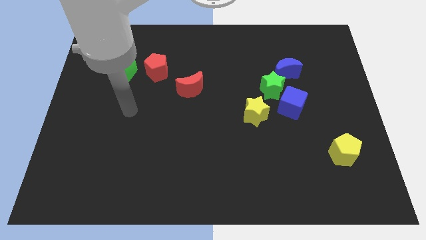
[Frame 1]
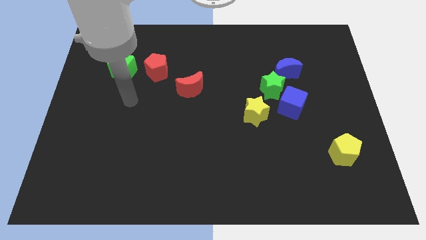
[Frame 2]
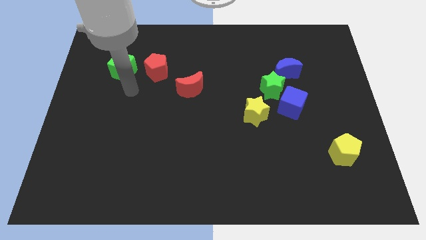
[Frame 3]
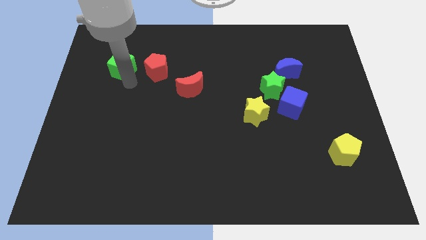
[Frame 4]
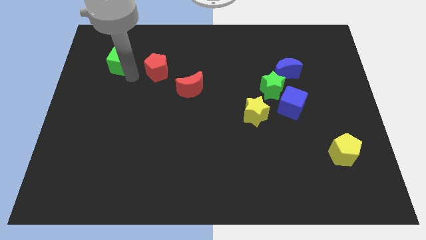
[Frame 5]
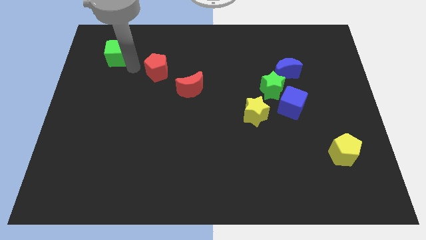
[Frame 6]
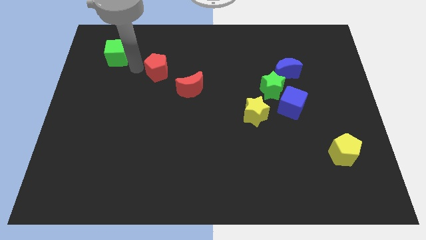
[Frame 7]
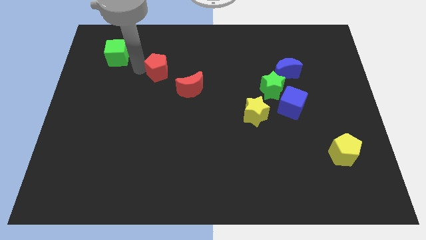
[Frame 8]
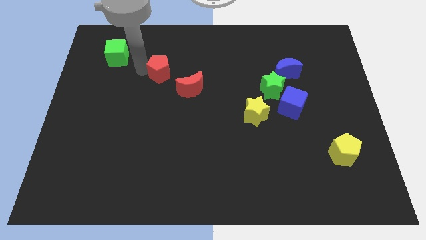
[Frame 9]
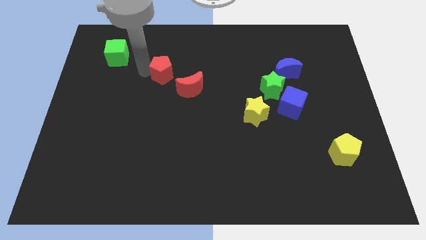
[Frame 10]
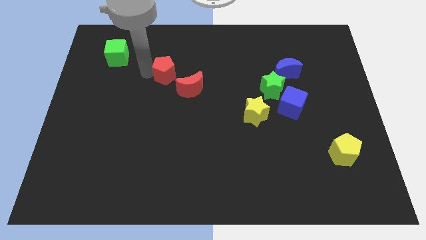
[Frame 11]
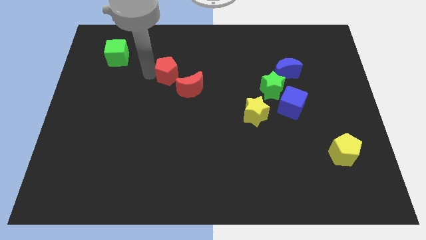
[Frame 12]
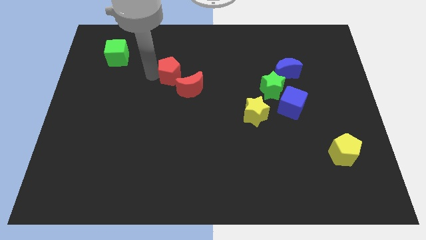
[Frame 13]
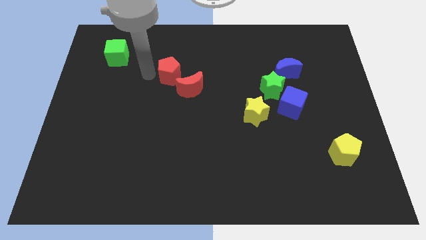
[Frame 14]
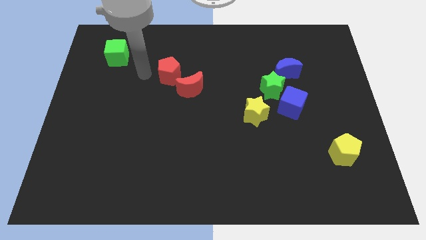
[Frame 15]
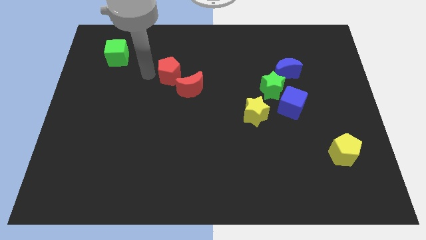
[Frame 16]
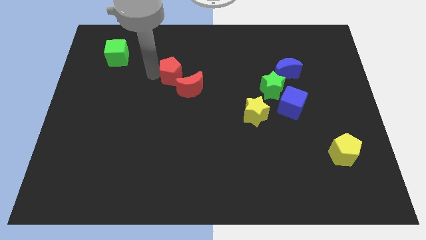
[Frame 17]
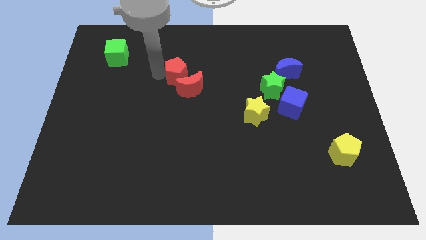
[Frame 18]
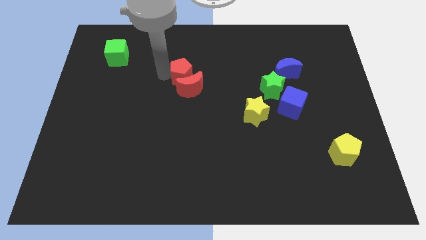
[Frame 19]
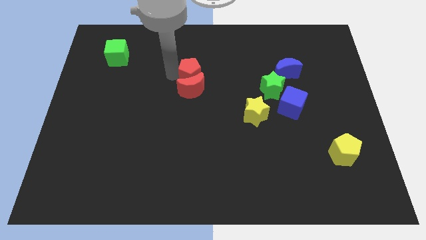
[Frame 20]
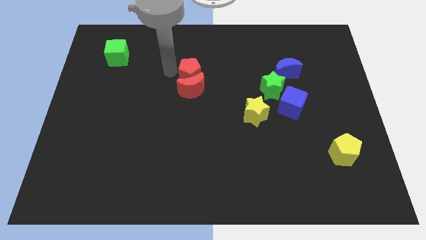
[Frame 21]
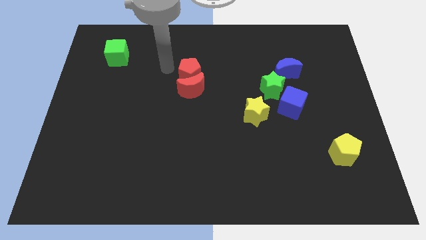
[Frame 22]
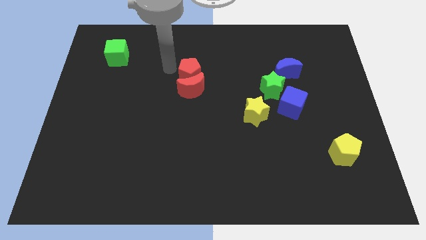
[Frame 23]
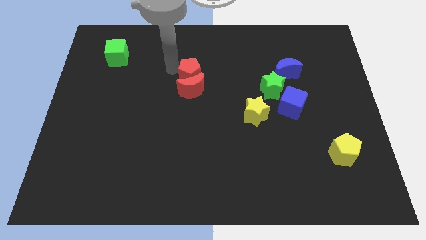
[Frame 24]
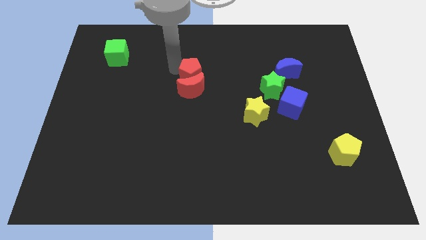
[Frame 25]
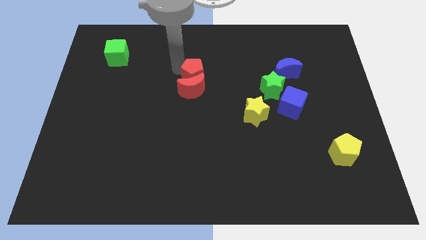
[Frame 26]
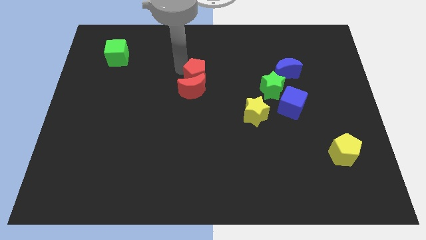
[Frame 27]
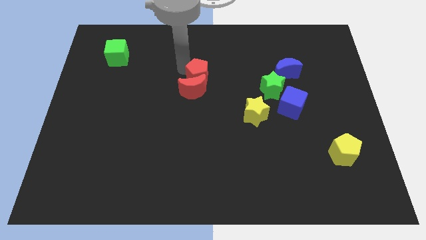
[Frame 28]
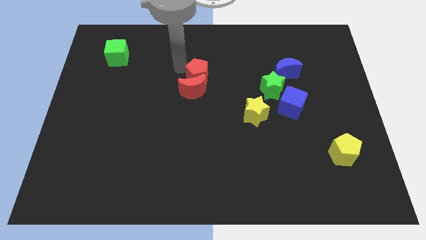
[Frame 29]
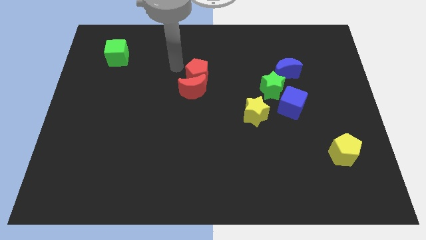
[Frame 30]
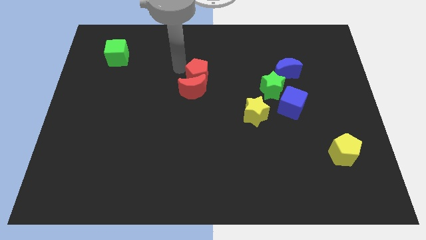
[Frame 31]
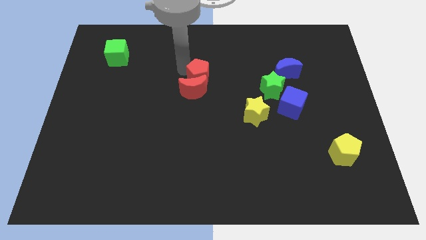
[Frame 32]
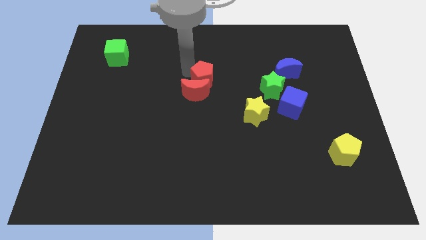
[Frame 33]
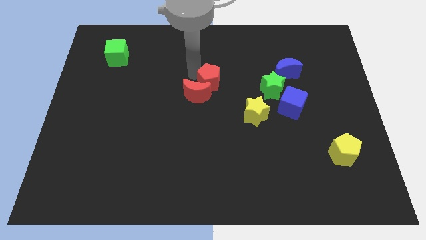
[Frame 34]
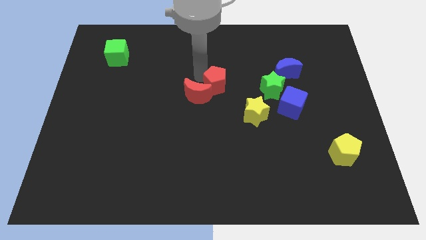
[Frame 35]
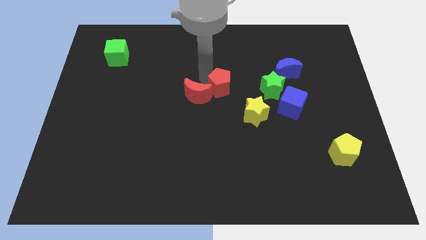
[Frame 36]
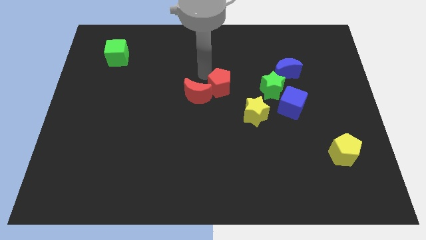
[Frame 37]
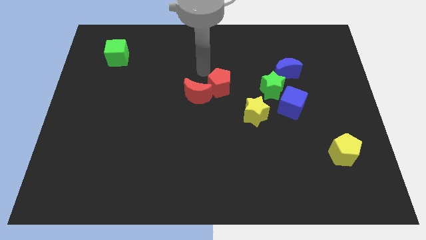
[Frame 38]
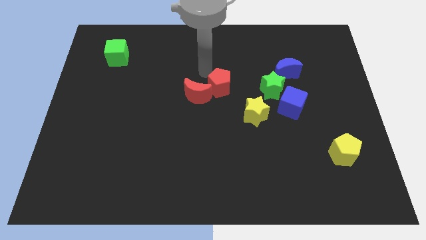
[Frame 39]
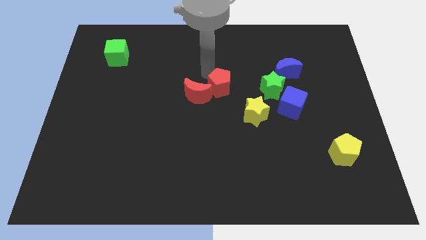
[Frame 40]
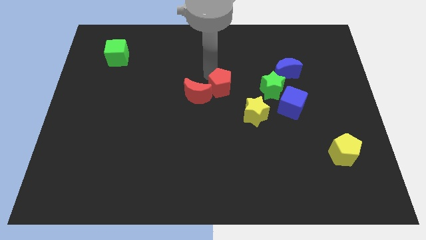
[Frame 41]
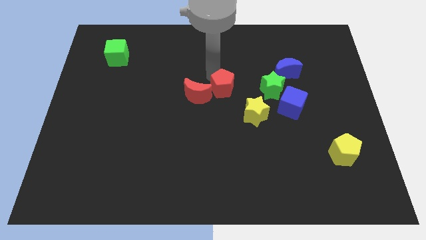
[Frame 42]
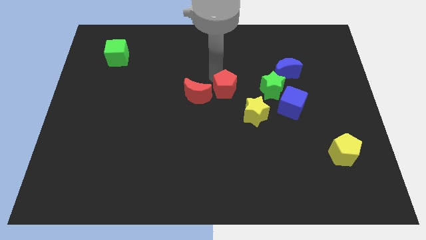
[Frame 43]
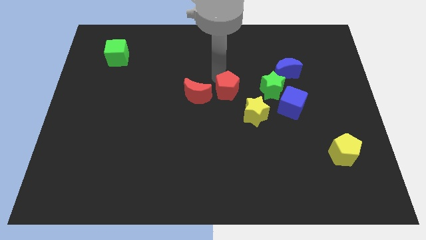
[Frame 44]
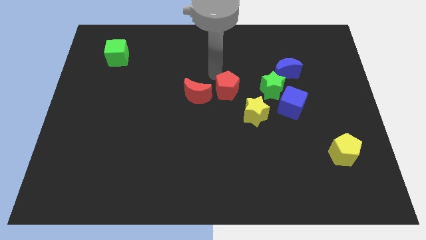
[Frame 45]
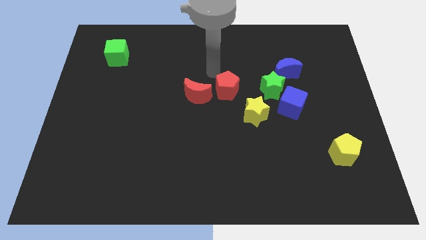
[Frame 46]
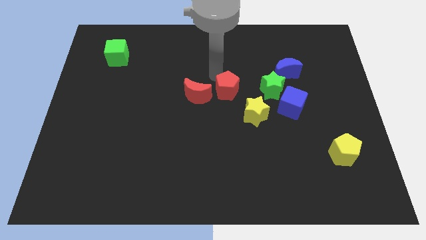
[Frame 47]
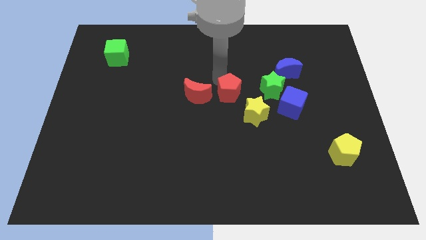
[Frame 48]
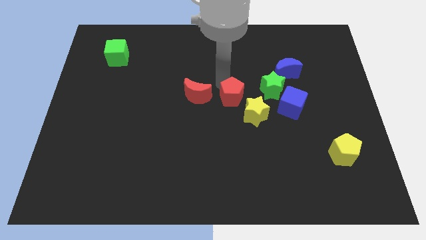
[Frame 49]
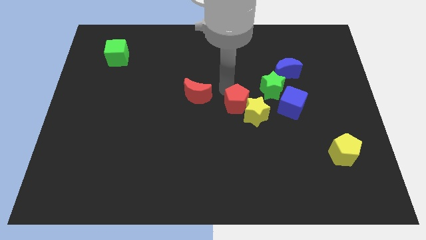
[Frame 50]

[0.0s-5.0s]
put the red pentagon close to the yellow star

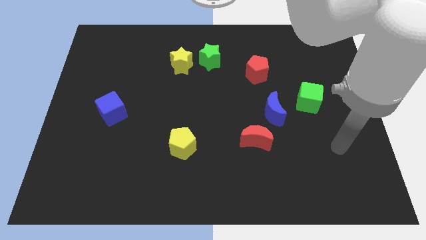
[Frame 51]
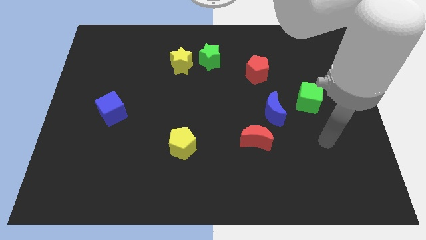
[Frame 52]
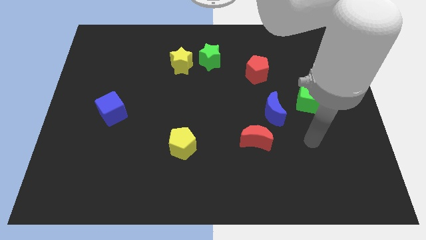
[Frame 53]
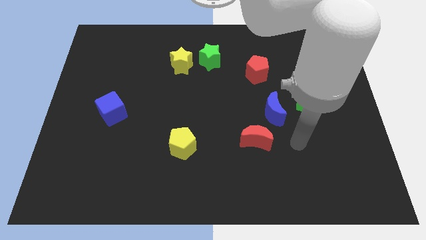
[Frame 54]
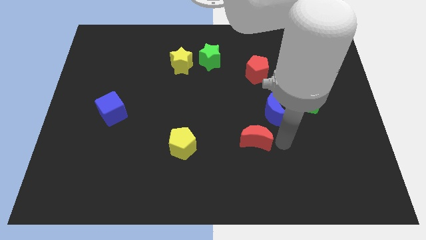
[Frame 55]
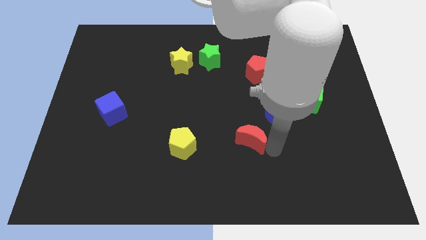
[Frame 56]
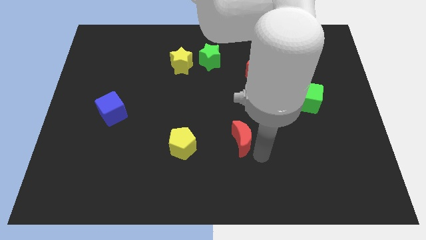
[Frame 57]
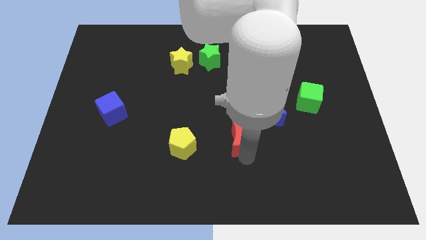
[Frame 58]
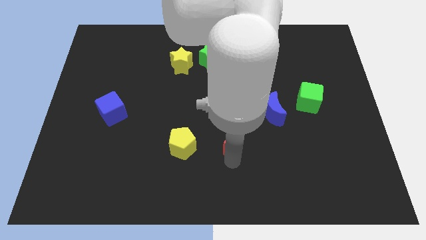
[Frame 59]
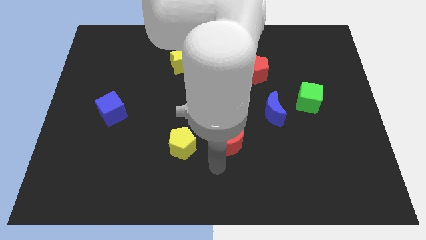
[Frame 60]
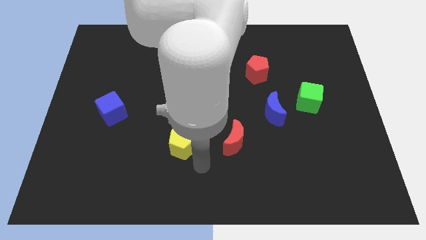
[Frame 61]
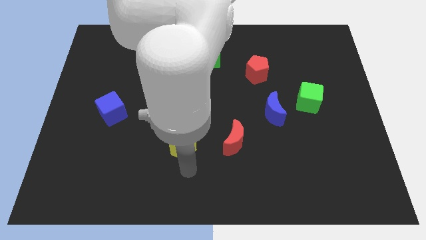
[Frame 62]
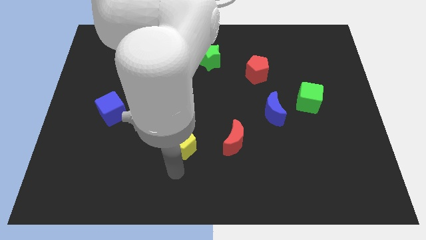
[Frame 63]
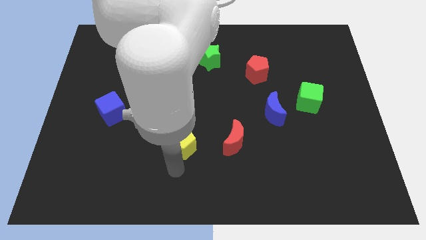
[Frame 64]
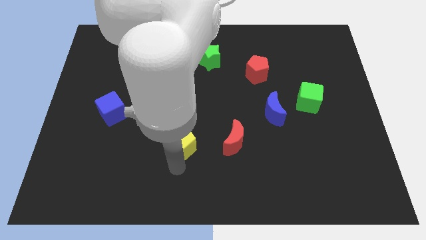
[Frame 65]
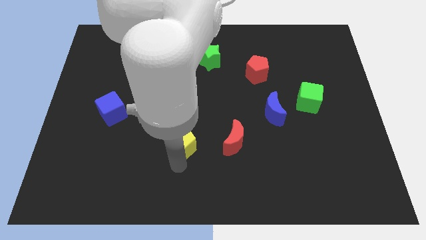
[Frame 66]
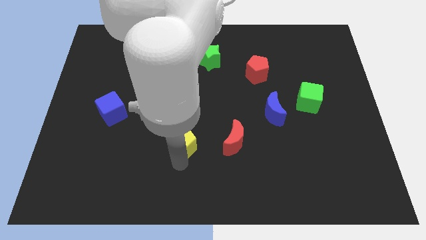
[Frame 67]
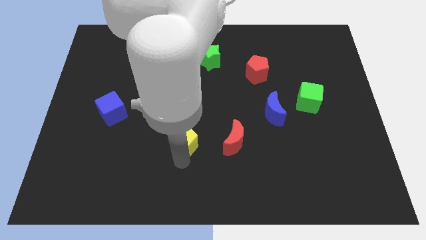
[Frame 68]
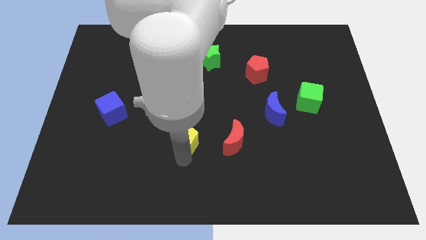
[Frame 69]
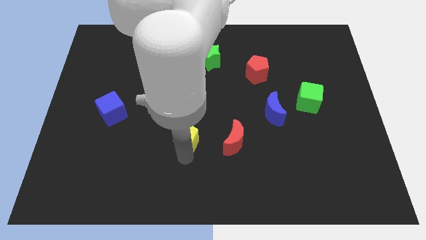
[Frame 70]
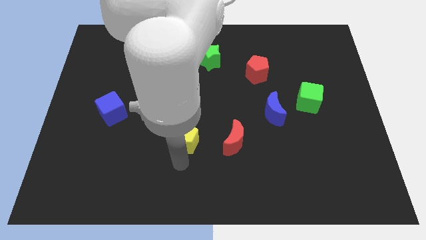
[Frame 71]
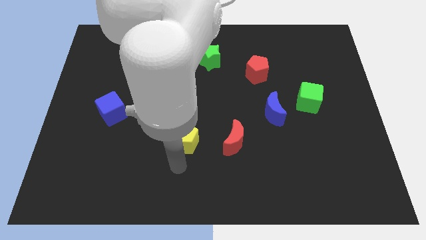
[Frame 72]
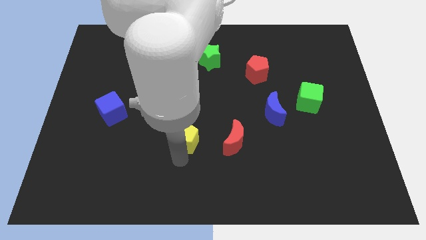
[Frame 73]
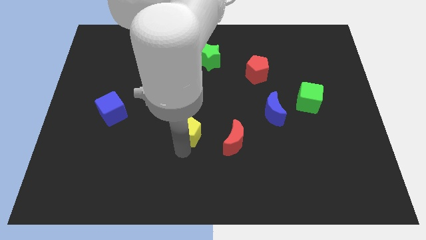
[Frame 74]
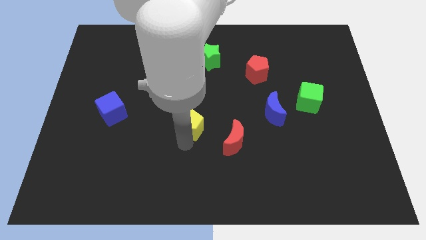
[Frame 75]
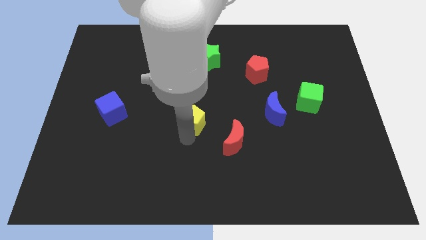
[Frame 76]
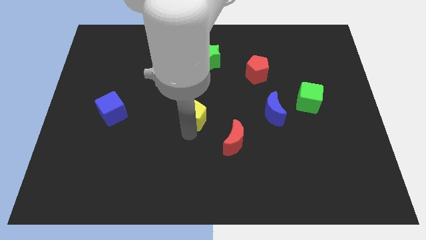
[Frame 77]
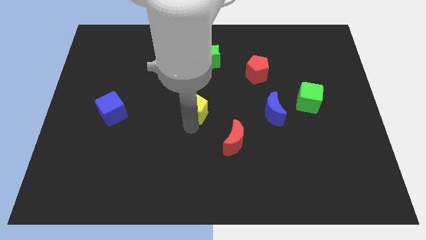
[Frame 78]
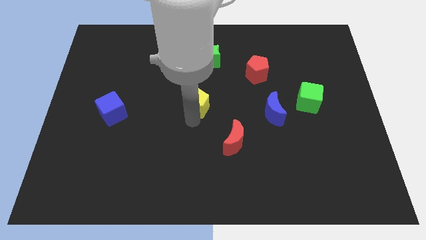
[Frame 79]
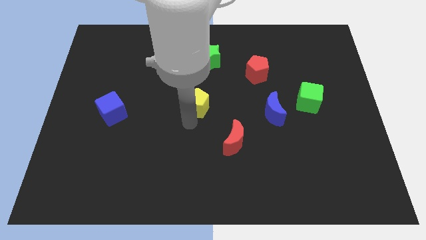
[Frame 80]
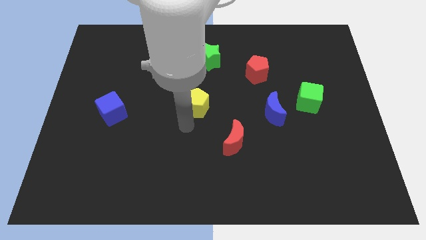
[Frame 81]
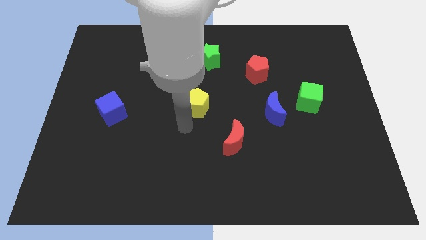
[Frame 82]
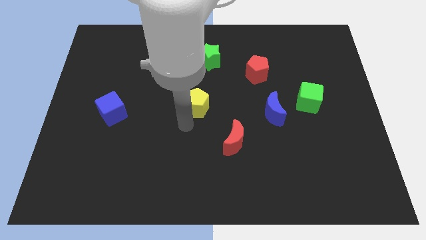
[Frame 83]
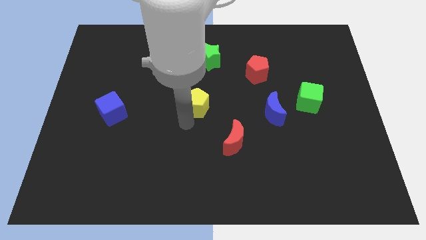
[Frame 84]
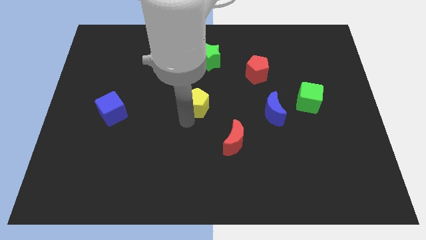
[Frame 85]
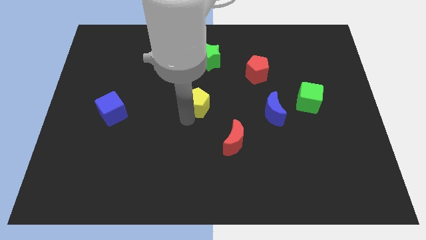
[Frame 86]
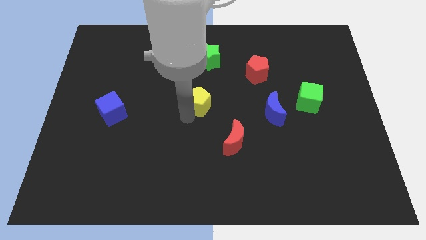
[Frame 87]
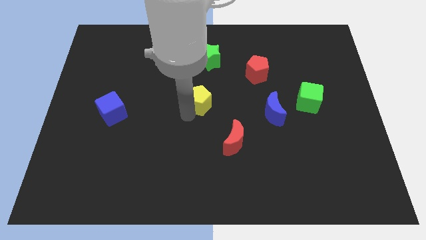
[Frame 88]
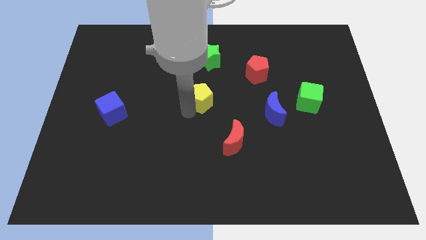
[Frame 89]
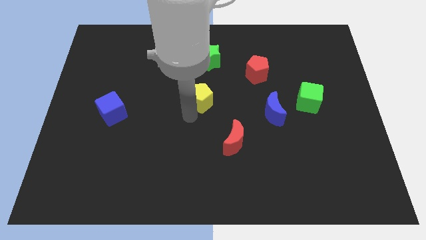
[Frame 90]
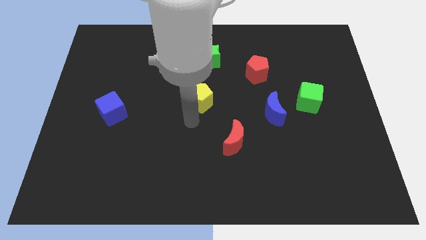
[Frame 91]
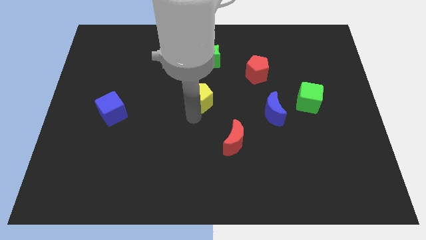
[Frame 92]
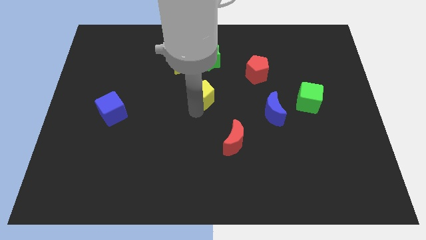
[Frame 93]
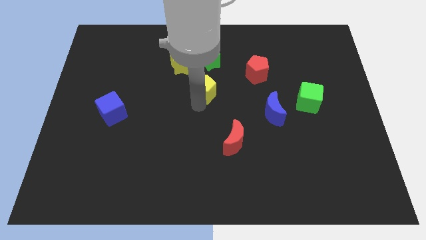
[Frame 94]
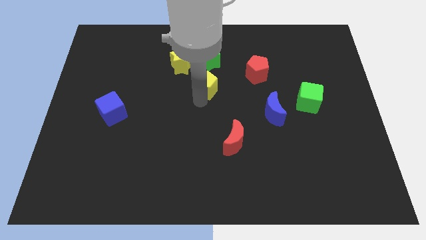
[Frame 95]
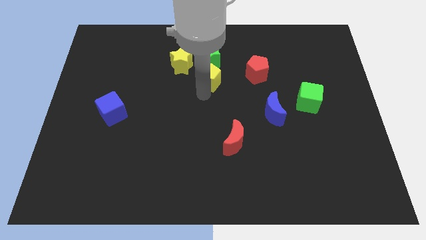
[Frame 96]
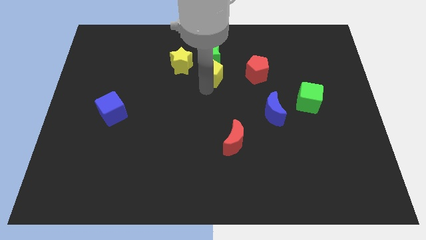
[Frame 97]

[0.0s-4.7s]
move the yellow pentagon close to the green star
